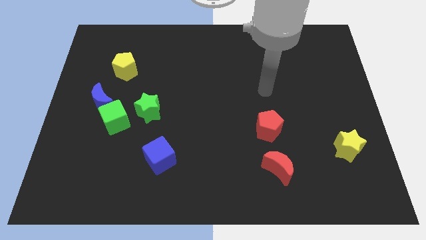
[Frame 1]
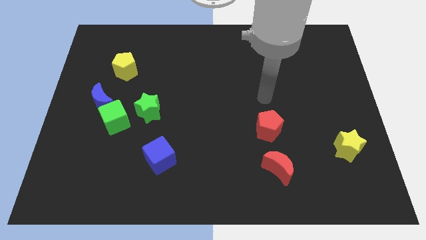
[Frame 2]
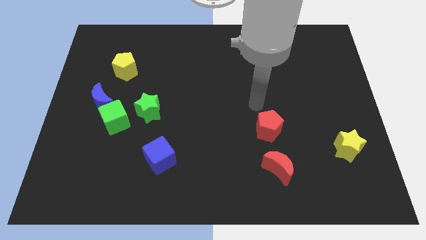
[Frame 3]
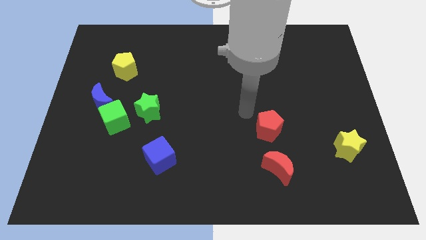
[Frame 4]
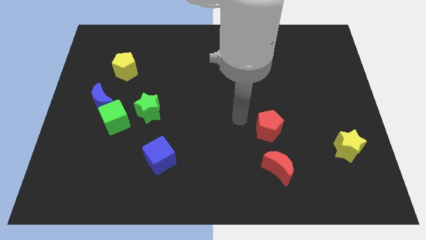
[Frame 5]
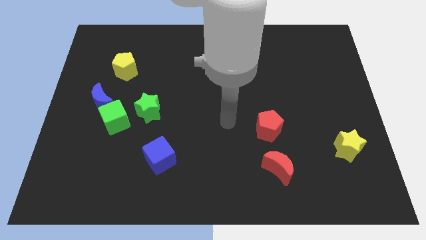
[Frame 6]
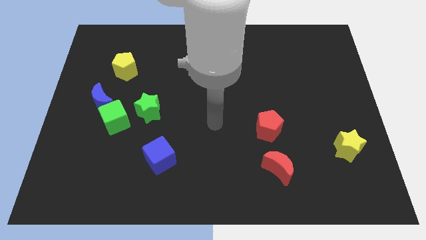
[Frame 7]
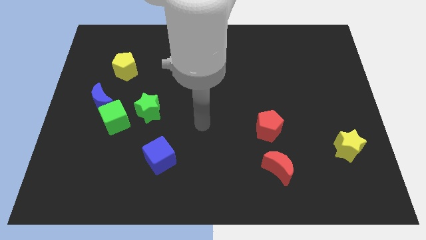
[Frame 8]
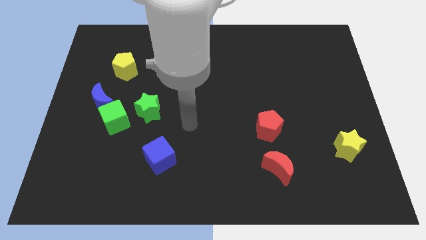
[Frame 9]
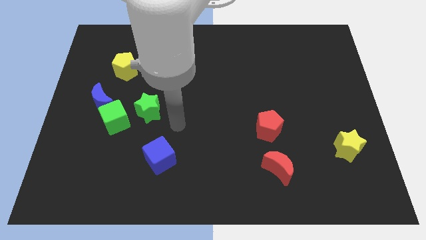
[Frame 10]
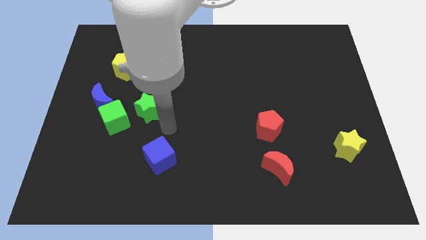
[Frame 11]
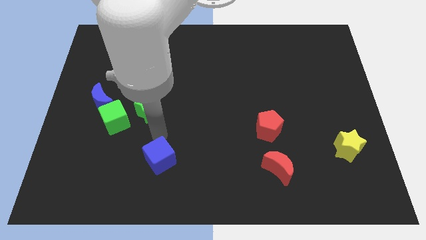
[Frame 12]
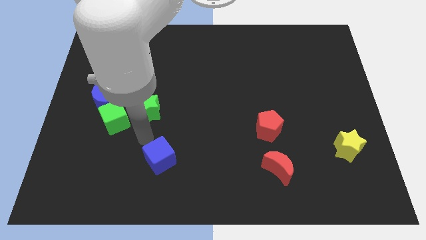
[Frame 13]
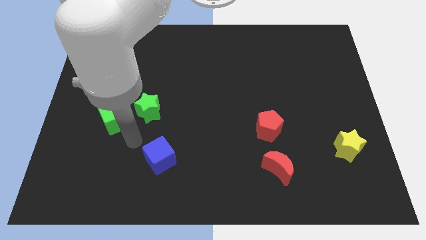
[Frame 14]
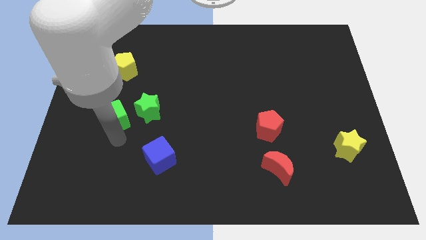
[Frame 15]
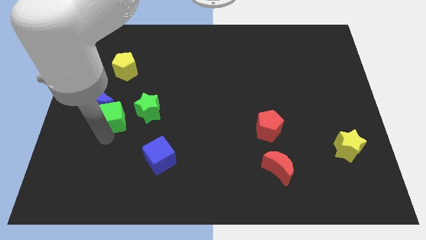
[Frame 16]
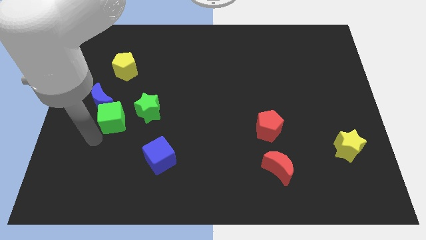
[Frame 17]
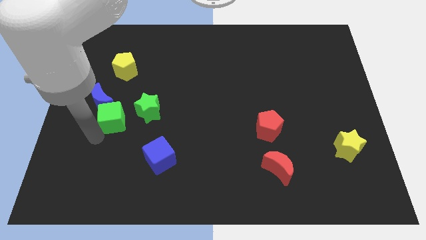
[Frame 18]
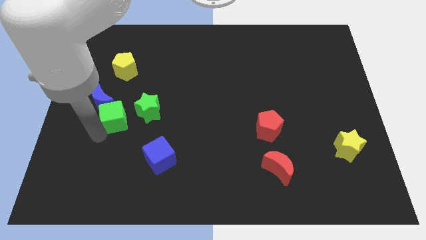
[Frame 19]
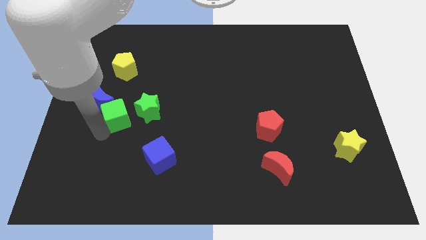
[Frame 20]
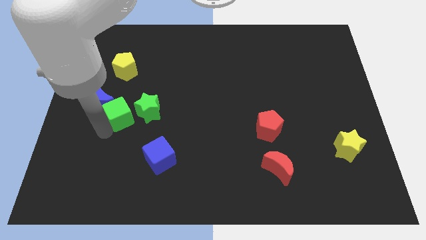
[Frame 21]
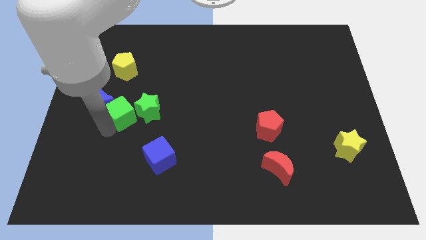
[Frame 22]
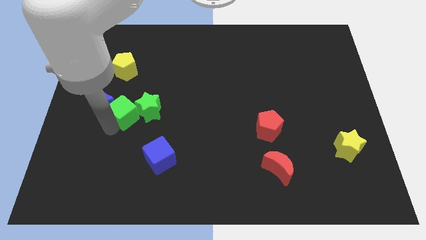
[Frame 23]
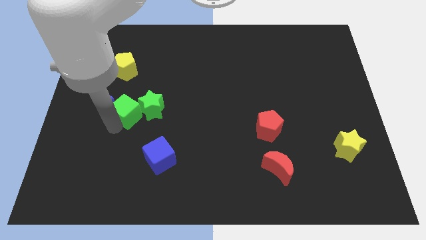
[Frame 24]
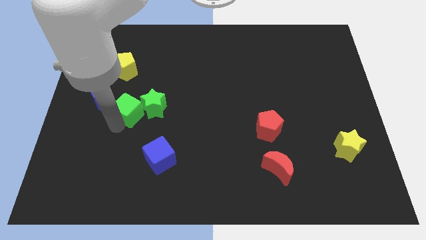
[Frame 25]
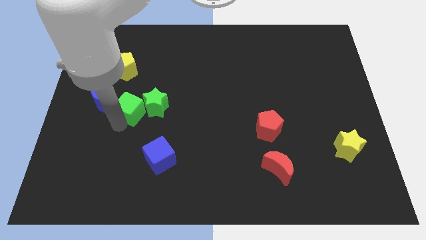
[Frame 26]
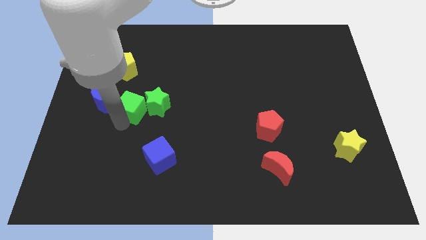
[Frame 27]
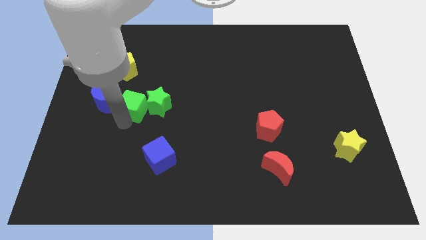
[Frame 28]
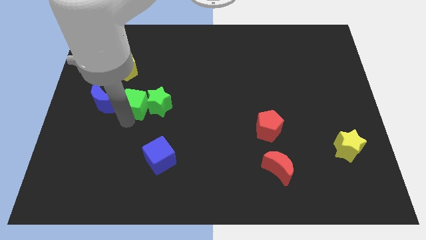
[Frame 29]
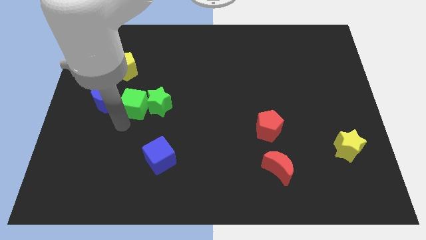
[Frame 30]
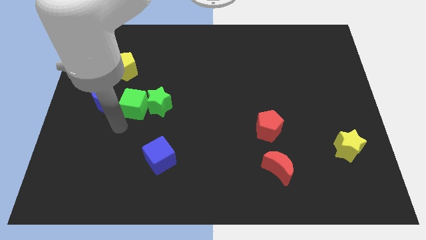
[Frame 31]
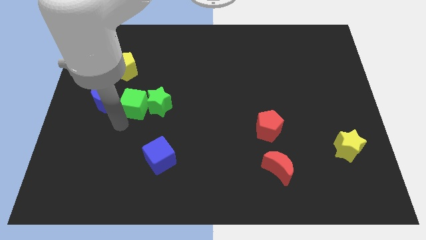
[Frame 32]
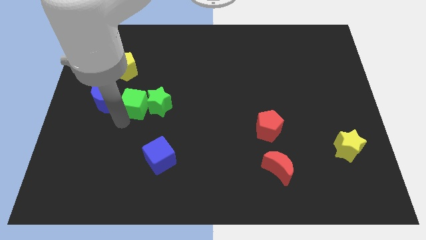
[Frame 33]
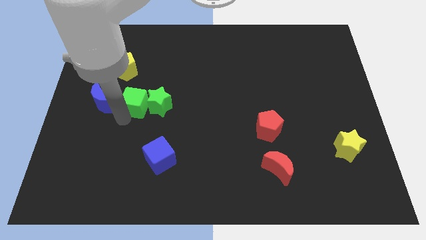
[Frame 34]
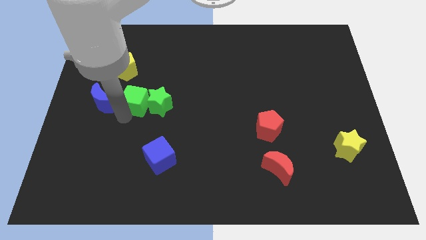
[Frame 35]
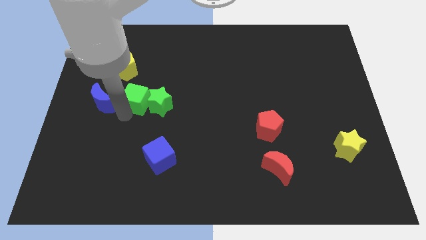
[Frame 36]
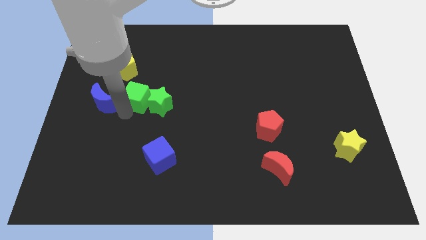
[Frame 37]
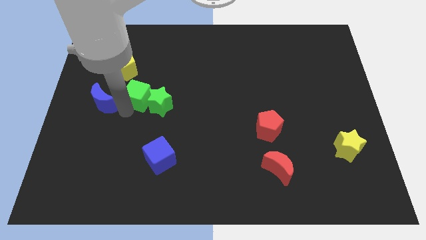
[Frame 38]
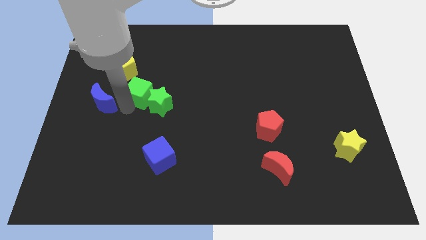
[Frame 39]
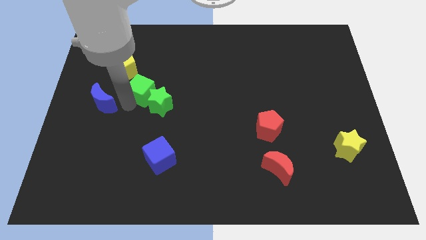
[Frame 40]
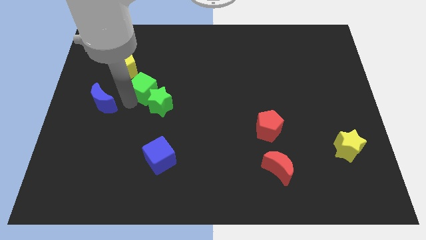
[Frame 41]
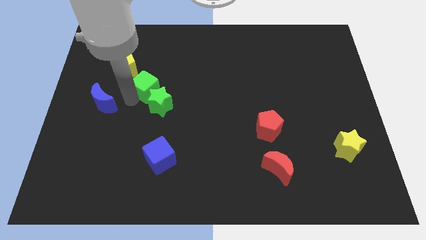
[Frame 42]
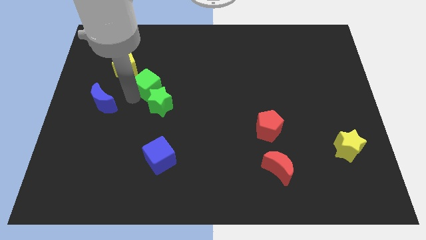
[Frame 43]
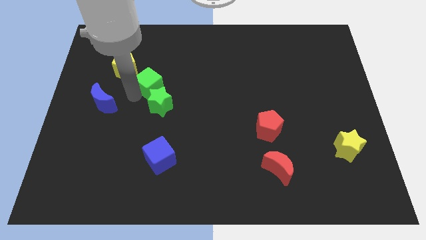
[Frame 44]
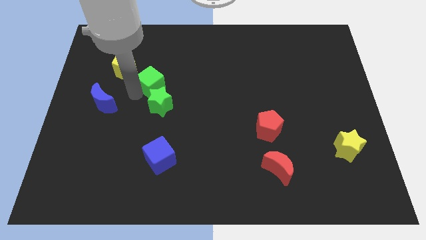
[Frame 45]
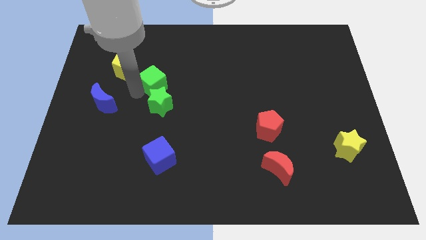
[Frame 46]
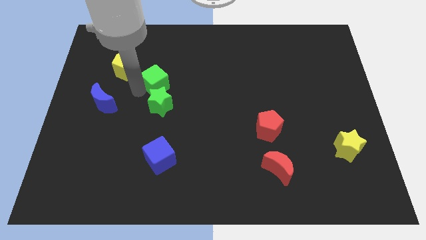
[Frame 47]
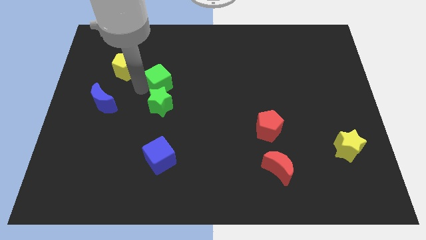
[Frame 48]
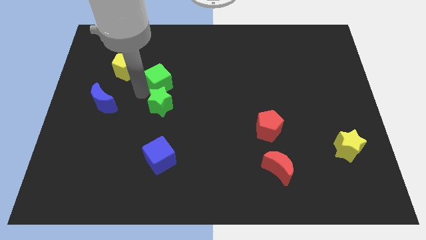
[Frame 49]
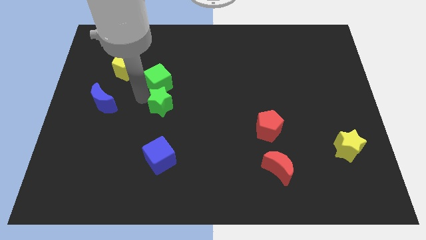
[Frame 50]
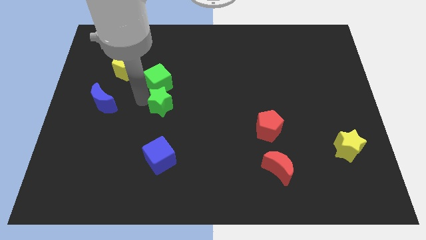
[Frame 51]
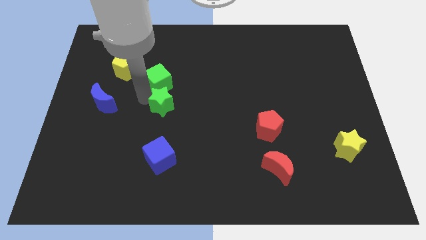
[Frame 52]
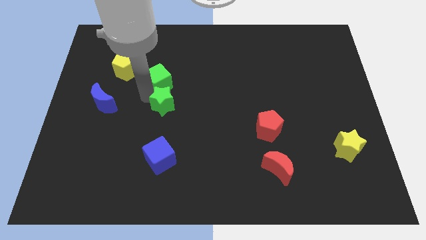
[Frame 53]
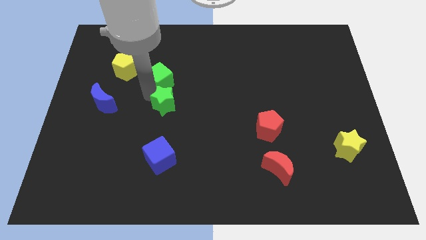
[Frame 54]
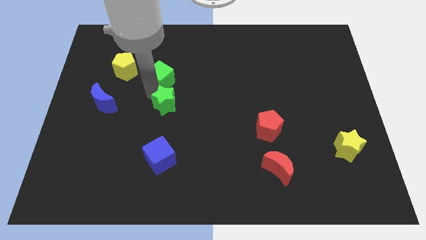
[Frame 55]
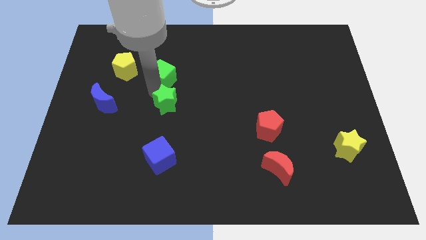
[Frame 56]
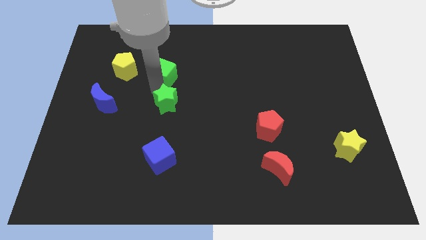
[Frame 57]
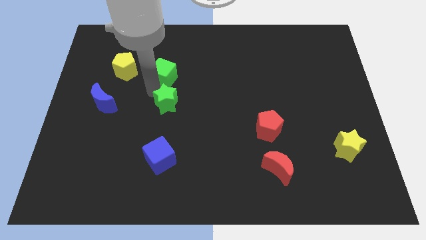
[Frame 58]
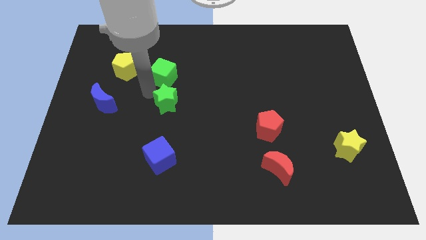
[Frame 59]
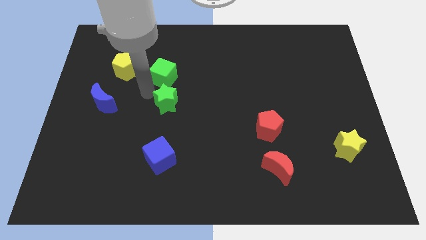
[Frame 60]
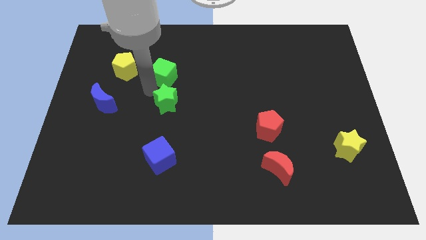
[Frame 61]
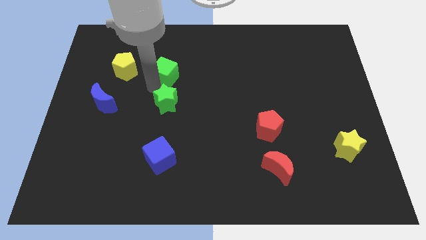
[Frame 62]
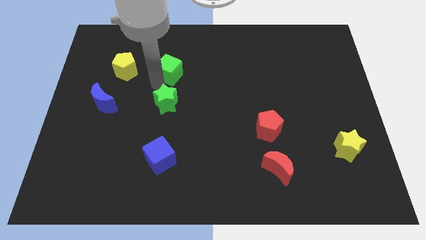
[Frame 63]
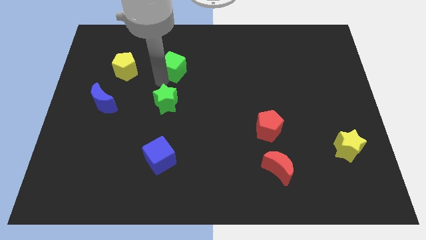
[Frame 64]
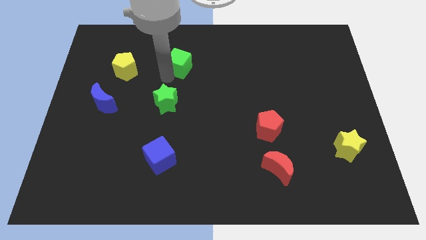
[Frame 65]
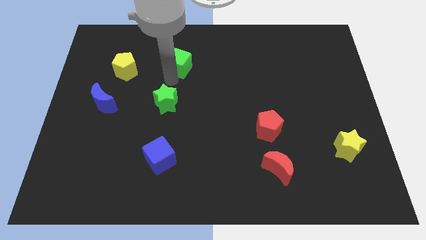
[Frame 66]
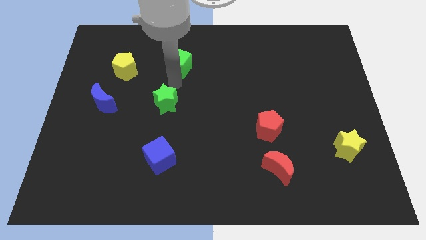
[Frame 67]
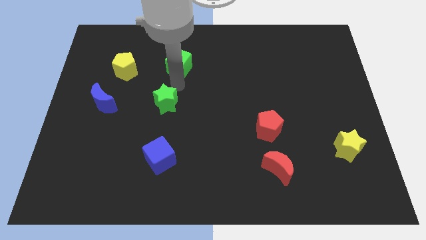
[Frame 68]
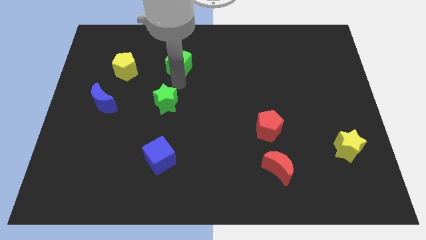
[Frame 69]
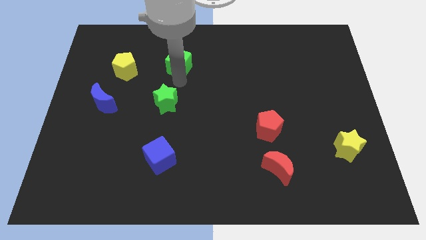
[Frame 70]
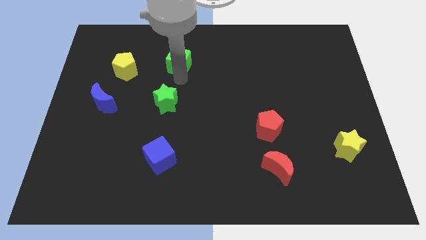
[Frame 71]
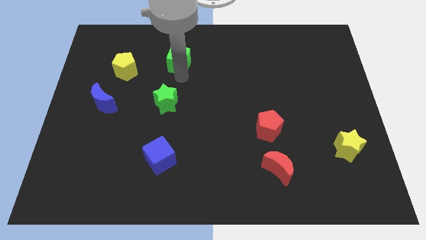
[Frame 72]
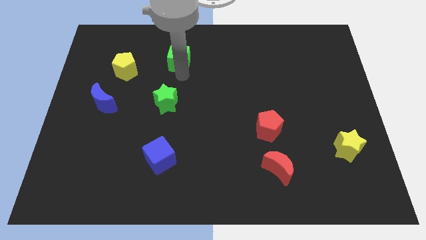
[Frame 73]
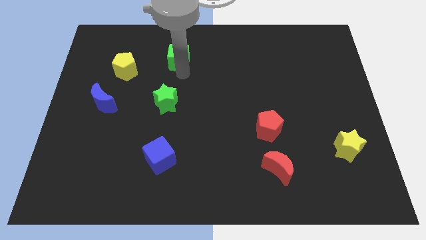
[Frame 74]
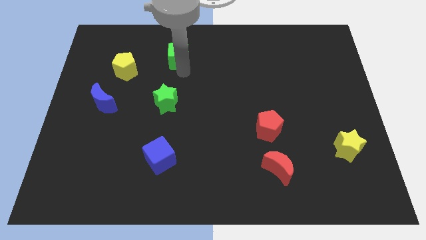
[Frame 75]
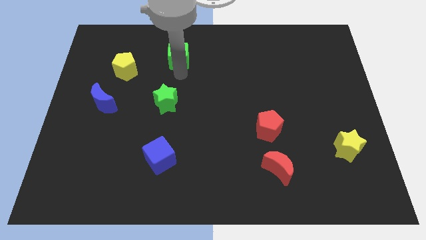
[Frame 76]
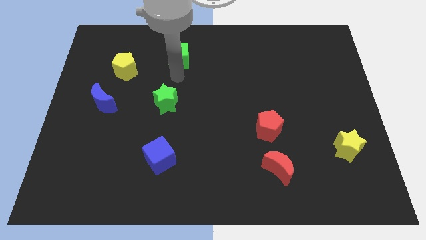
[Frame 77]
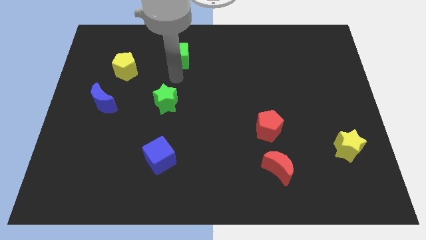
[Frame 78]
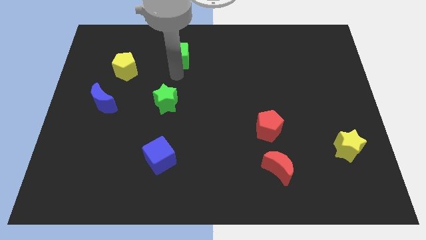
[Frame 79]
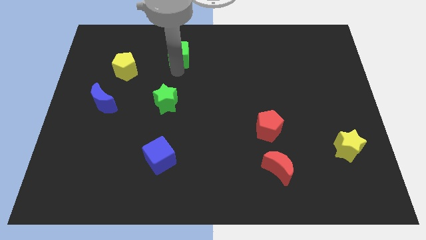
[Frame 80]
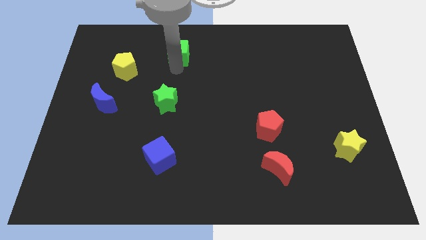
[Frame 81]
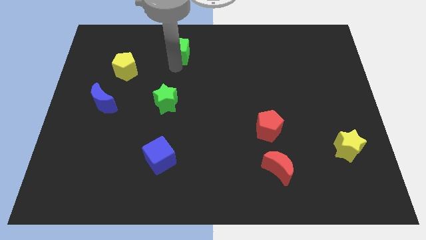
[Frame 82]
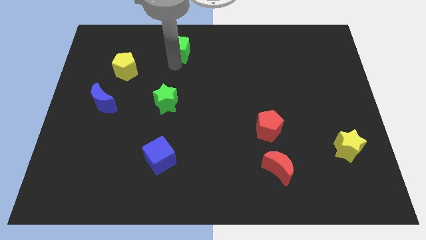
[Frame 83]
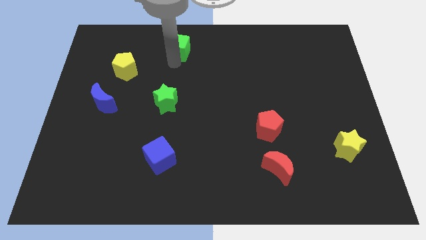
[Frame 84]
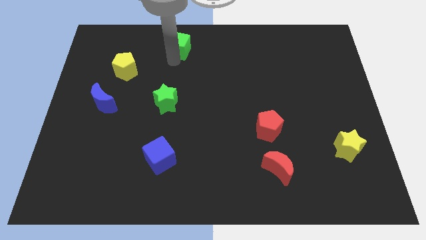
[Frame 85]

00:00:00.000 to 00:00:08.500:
slide the green cube to the towards your base
